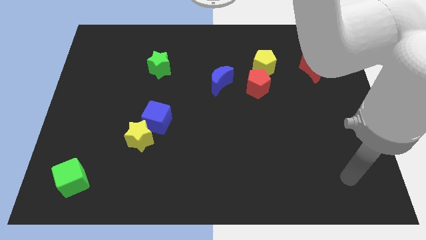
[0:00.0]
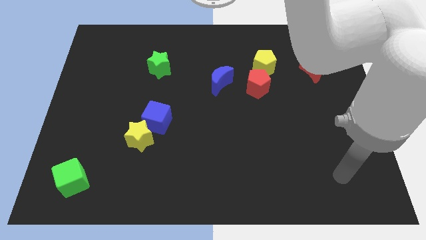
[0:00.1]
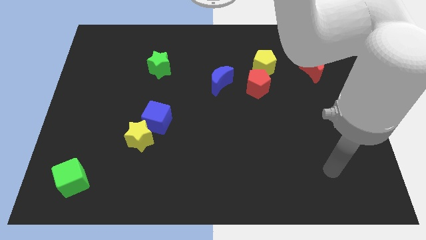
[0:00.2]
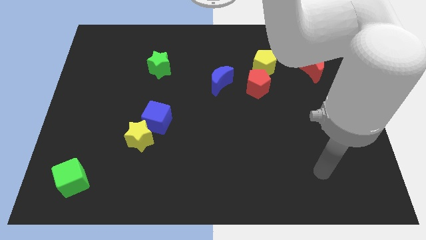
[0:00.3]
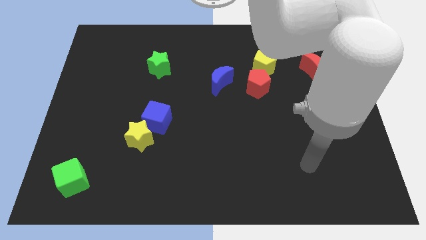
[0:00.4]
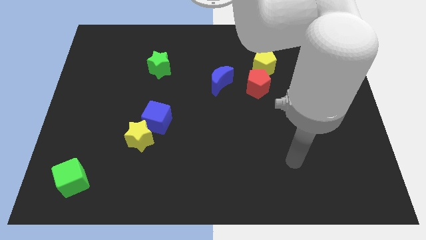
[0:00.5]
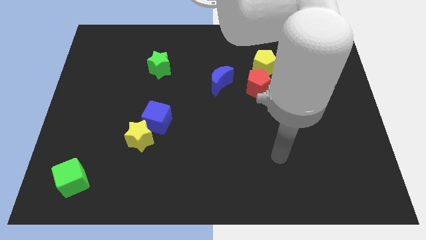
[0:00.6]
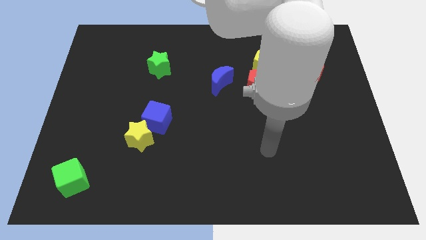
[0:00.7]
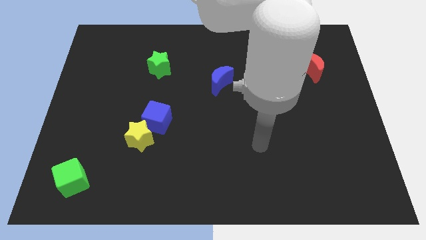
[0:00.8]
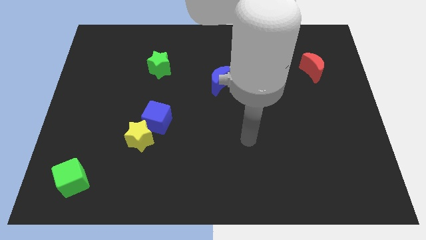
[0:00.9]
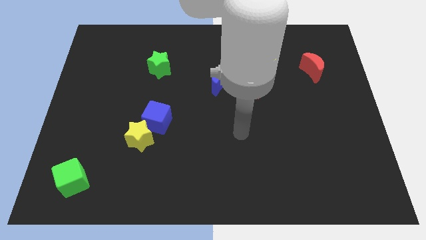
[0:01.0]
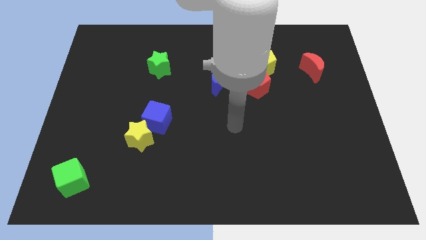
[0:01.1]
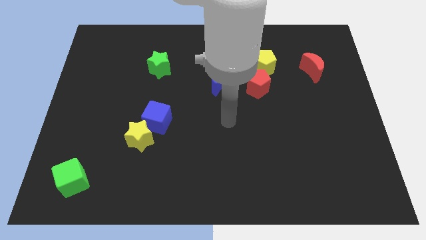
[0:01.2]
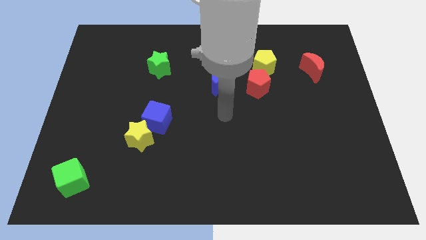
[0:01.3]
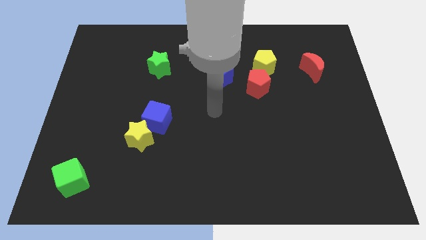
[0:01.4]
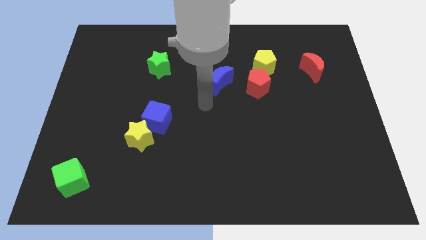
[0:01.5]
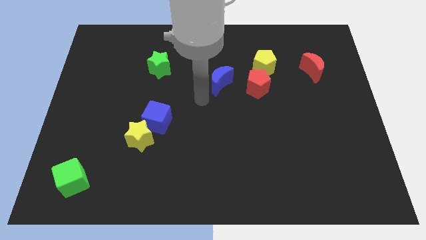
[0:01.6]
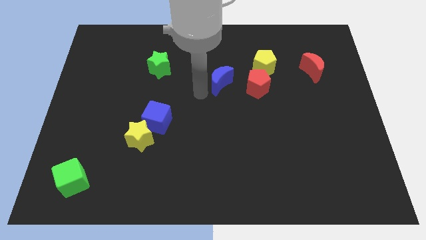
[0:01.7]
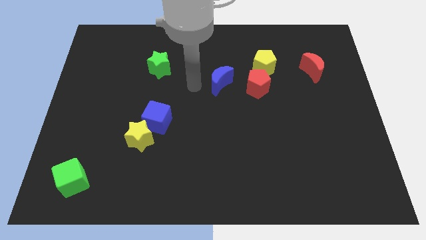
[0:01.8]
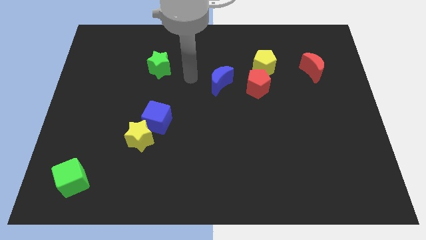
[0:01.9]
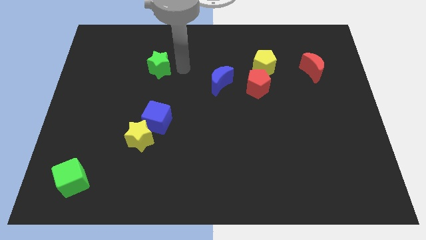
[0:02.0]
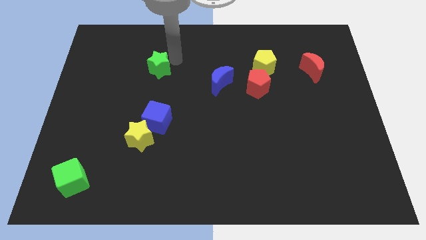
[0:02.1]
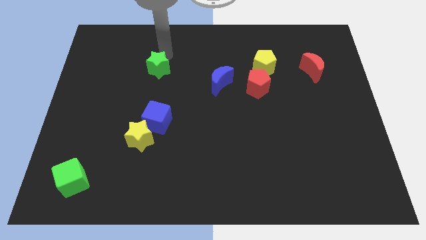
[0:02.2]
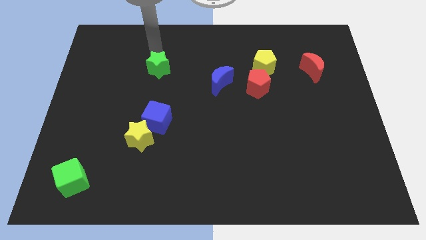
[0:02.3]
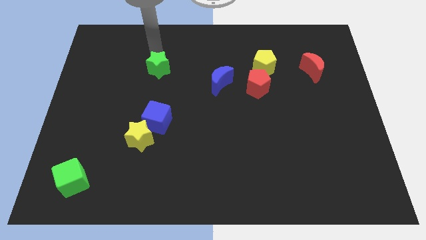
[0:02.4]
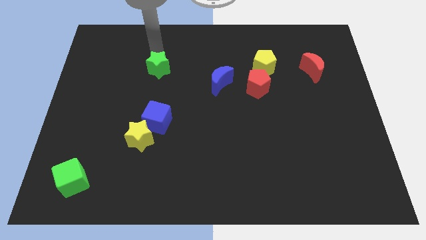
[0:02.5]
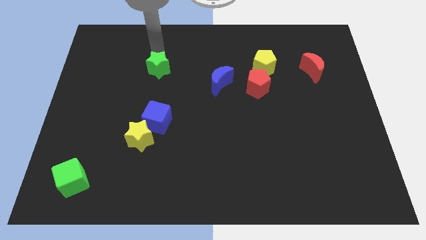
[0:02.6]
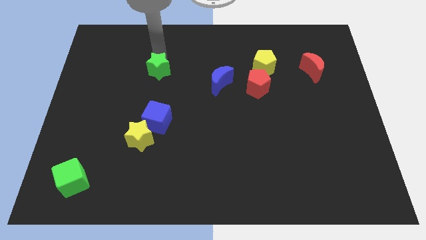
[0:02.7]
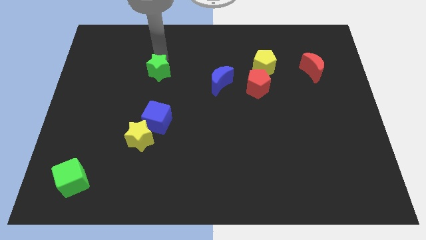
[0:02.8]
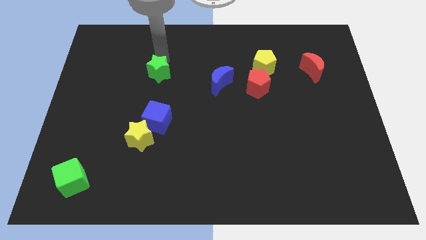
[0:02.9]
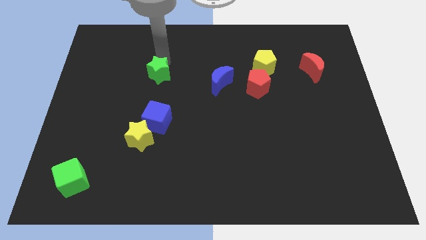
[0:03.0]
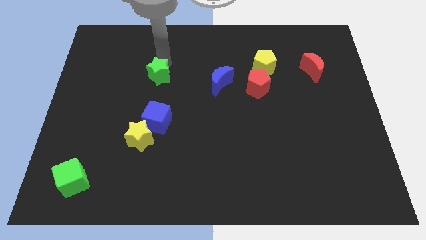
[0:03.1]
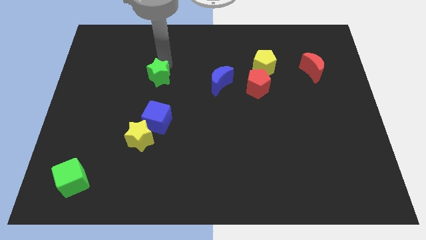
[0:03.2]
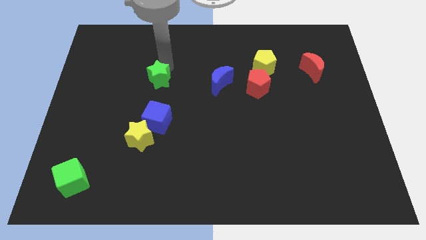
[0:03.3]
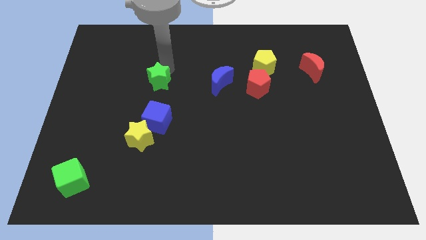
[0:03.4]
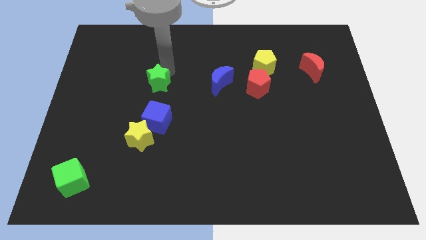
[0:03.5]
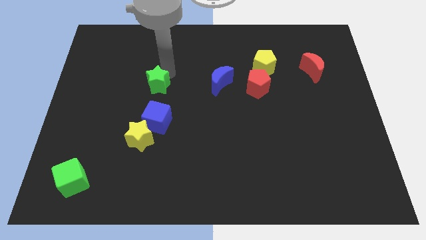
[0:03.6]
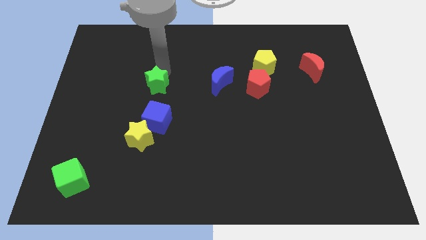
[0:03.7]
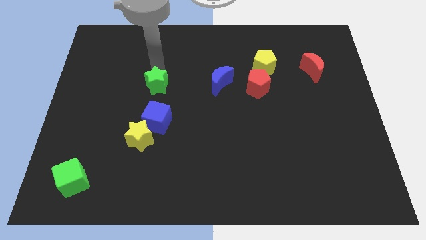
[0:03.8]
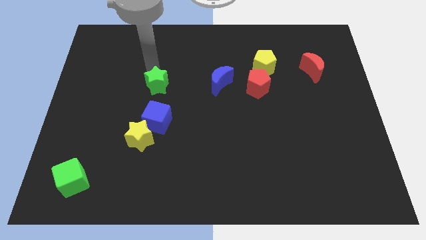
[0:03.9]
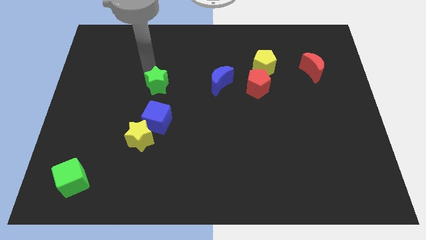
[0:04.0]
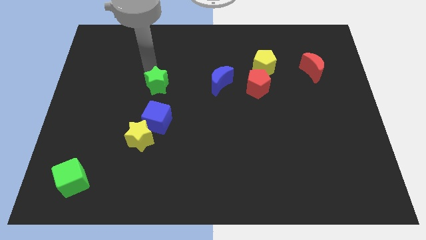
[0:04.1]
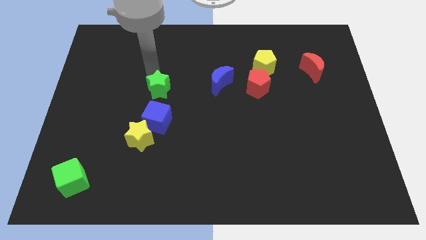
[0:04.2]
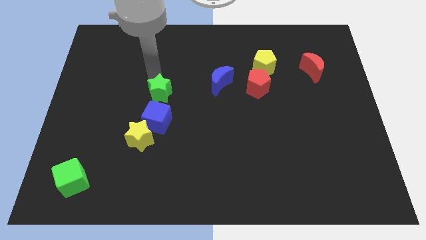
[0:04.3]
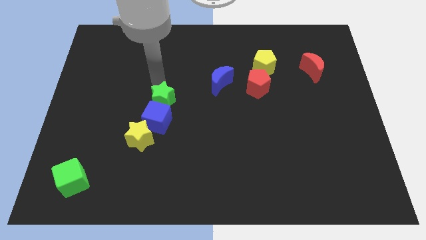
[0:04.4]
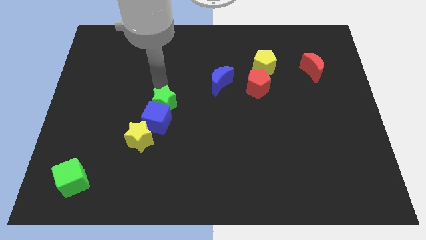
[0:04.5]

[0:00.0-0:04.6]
move the green star diagonally up and to the right of the yellow star

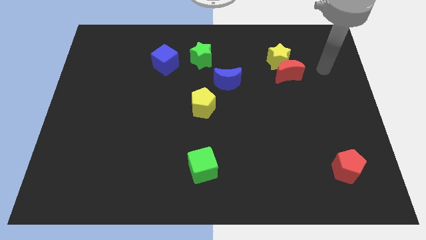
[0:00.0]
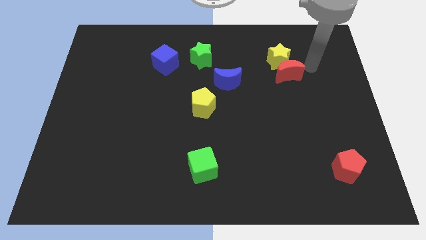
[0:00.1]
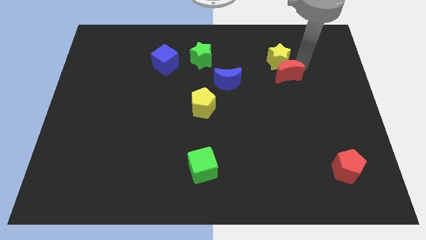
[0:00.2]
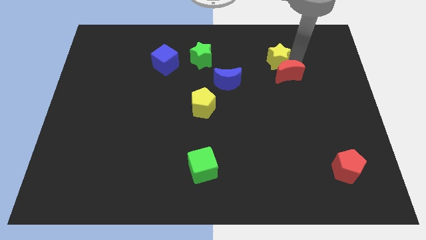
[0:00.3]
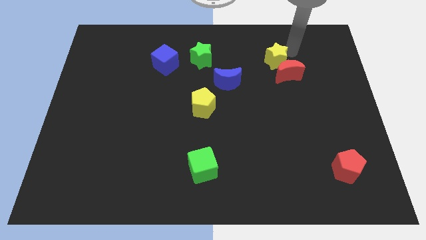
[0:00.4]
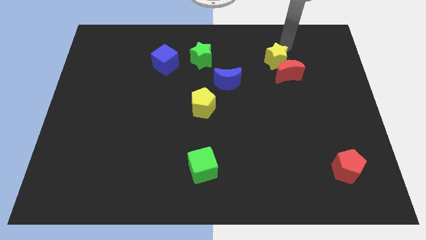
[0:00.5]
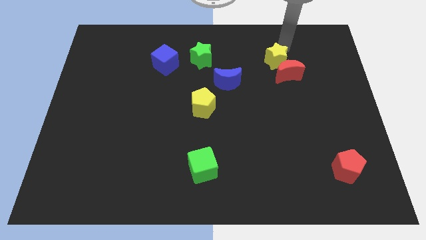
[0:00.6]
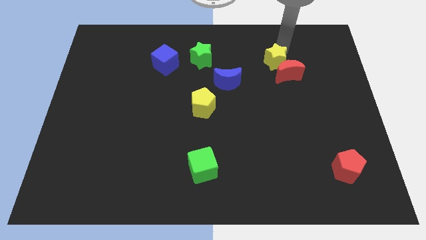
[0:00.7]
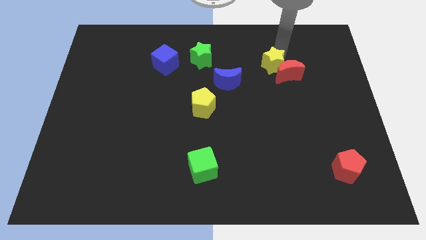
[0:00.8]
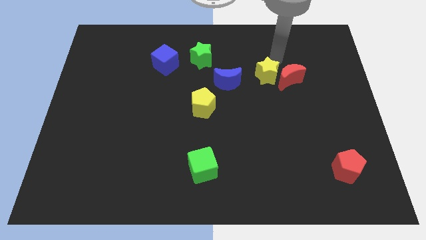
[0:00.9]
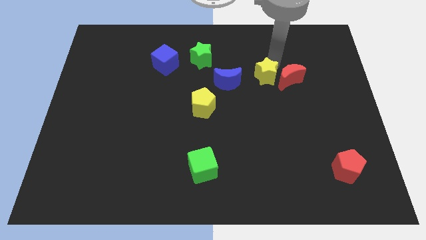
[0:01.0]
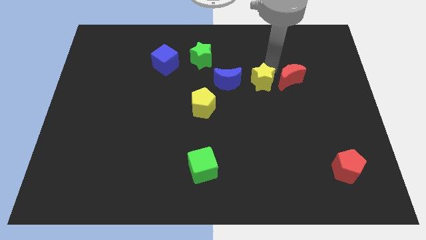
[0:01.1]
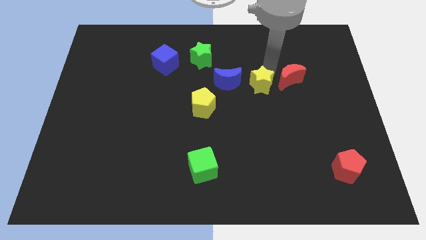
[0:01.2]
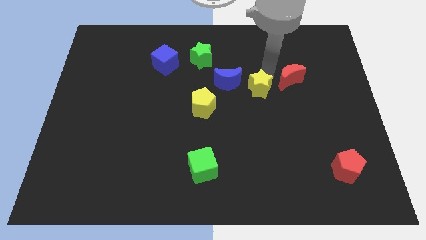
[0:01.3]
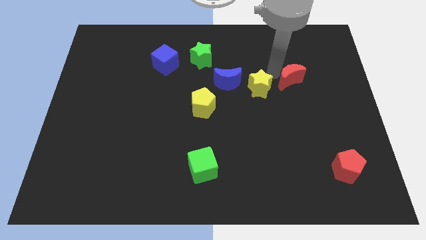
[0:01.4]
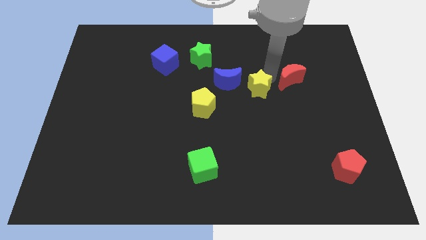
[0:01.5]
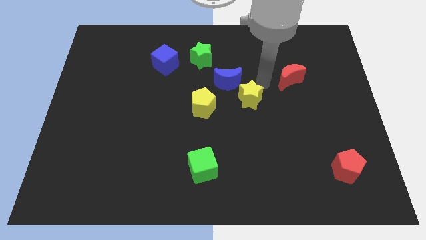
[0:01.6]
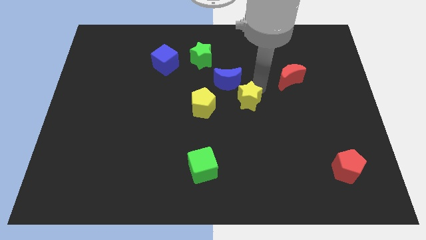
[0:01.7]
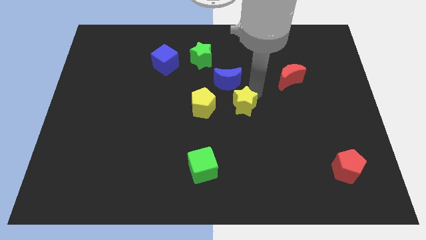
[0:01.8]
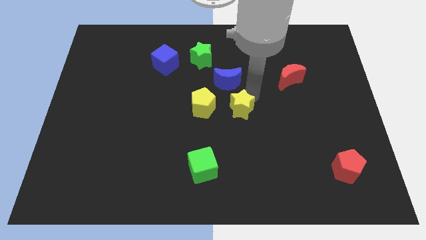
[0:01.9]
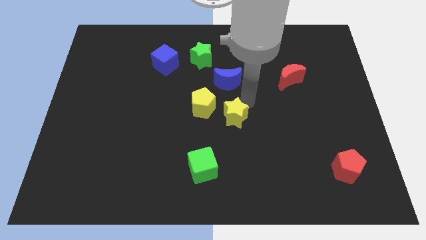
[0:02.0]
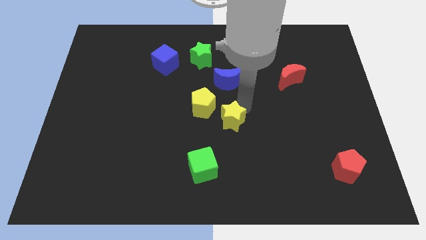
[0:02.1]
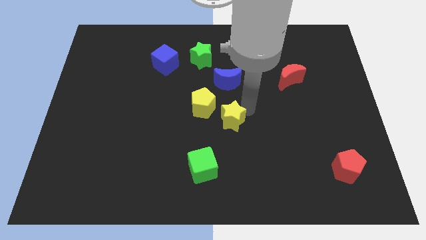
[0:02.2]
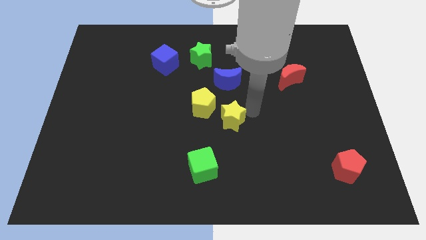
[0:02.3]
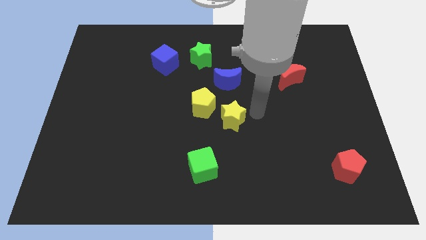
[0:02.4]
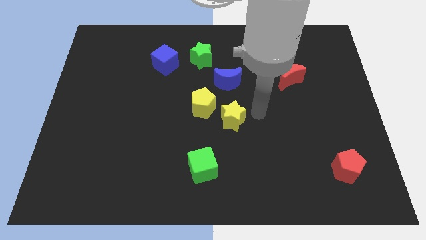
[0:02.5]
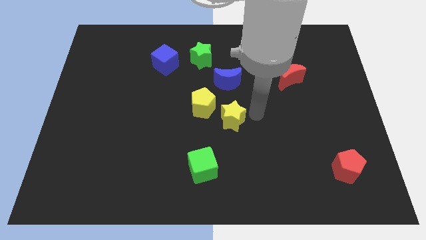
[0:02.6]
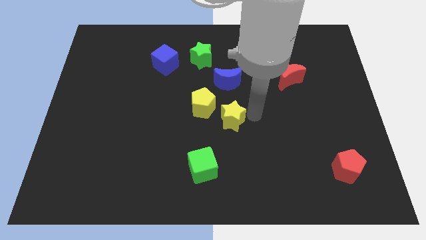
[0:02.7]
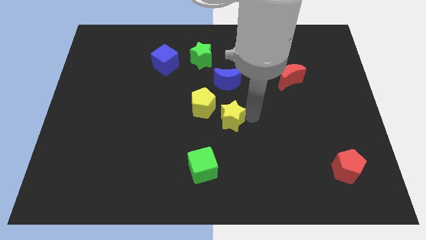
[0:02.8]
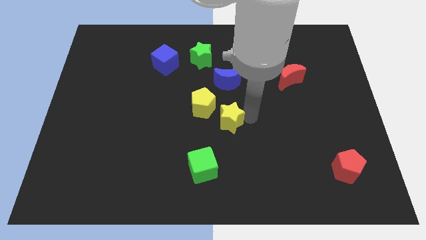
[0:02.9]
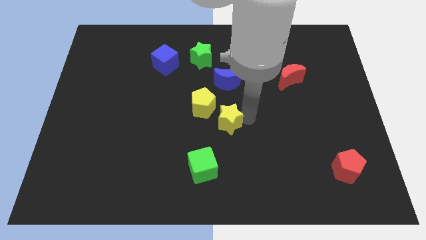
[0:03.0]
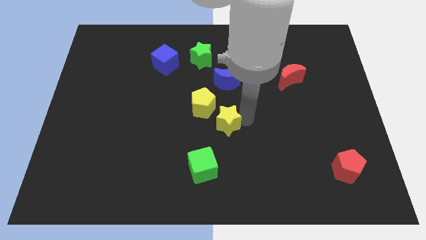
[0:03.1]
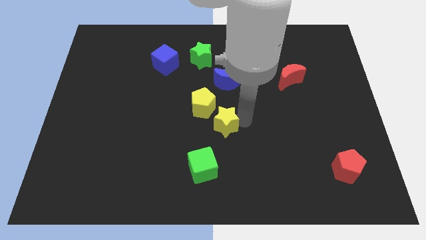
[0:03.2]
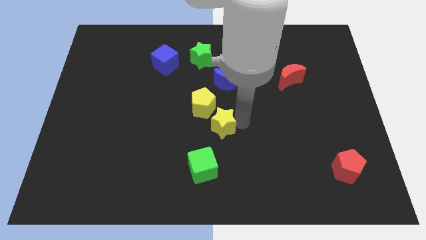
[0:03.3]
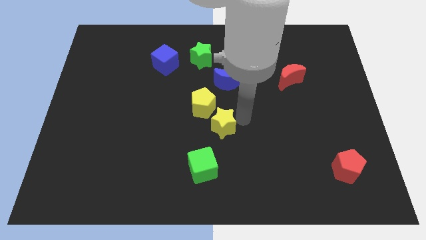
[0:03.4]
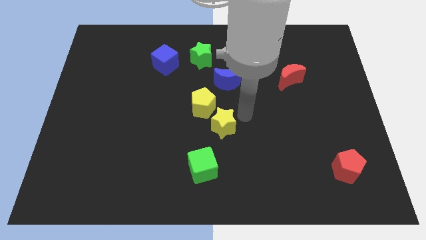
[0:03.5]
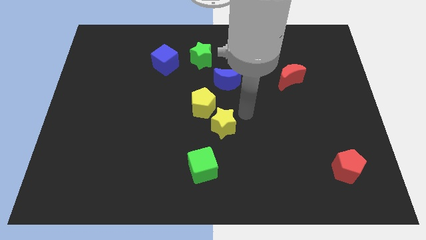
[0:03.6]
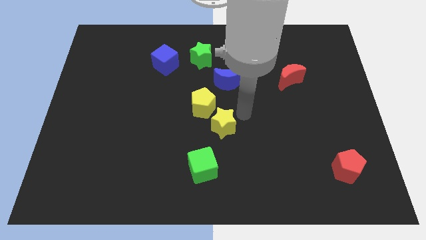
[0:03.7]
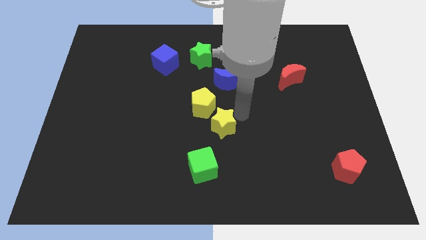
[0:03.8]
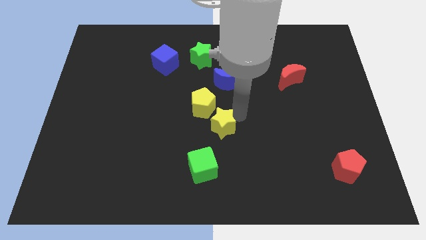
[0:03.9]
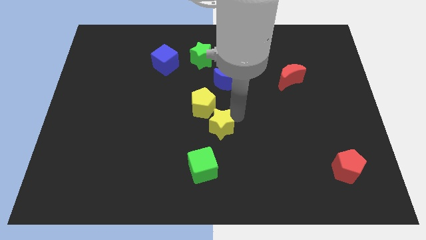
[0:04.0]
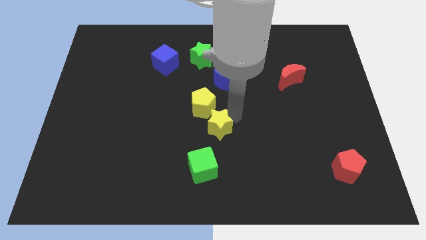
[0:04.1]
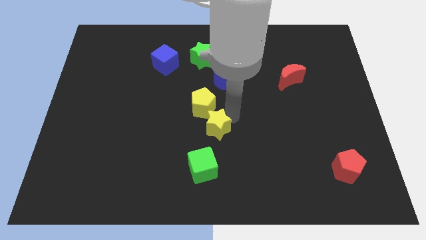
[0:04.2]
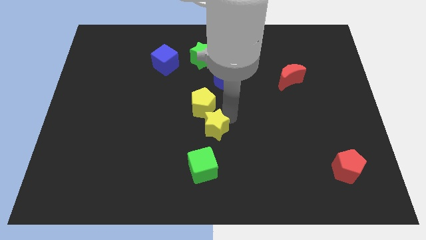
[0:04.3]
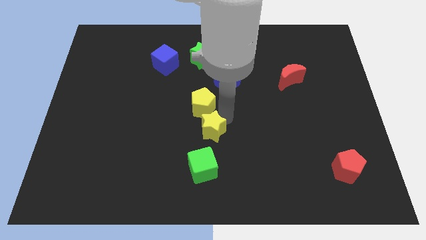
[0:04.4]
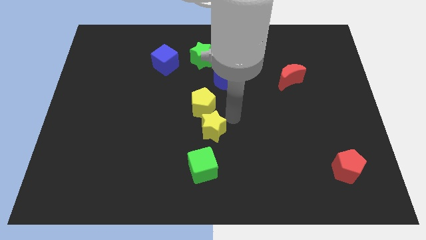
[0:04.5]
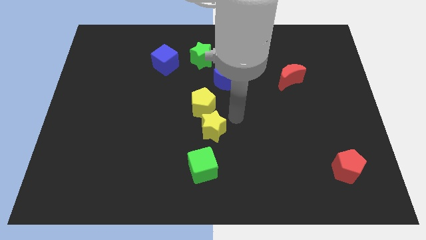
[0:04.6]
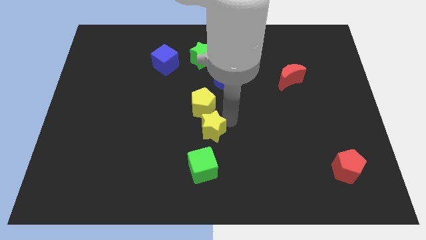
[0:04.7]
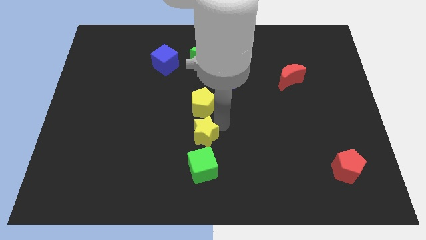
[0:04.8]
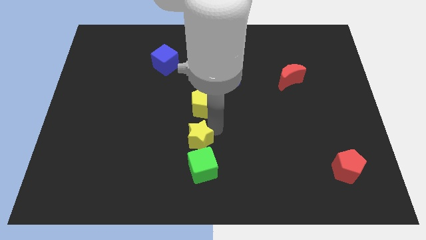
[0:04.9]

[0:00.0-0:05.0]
slide the yellow star to the top left of the green cube
